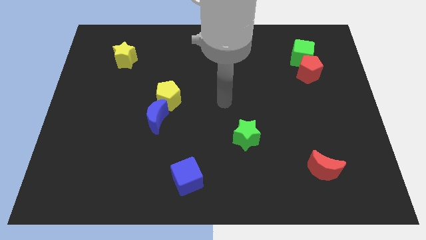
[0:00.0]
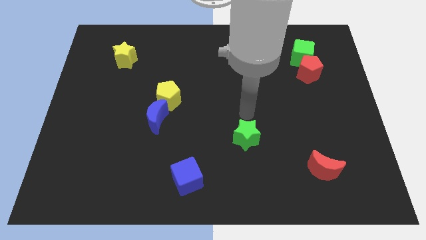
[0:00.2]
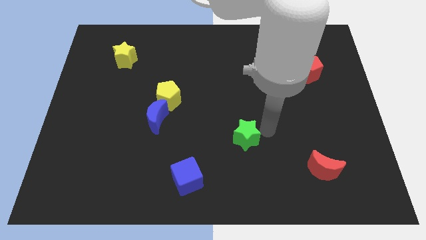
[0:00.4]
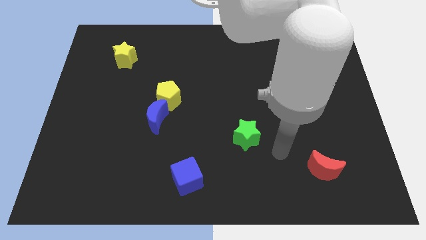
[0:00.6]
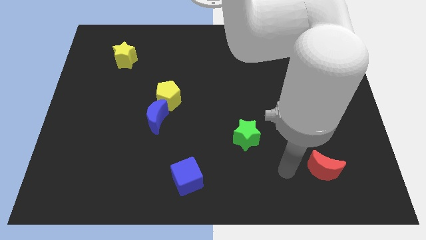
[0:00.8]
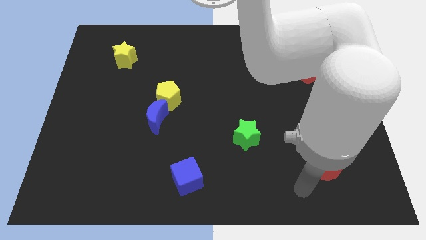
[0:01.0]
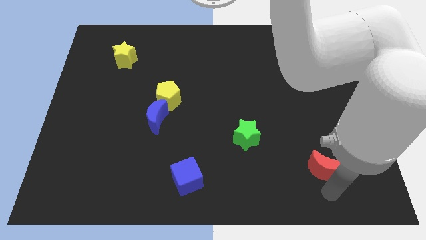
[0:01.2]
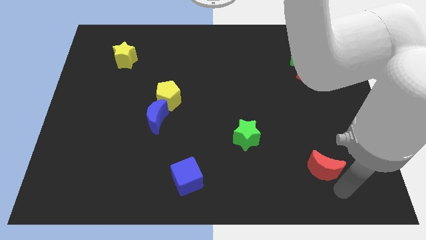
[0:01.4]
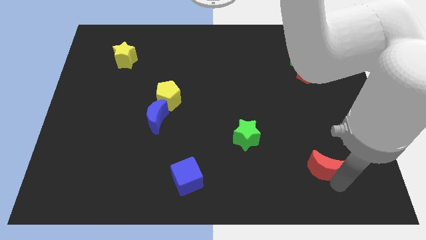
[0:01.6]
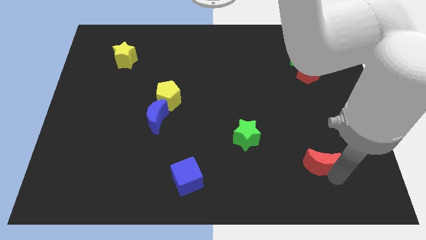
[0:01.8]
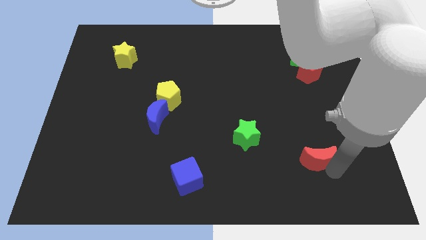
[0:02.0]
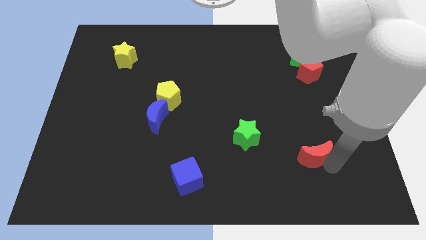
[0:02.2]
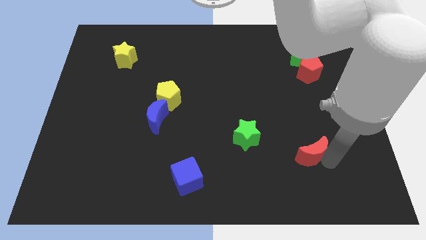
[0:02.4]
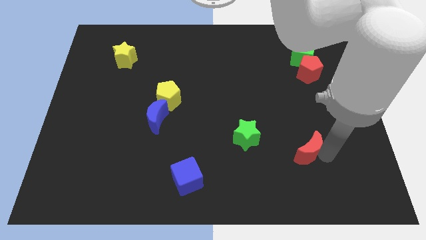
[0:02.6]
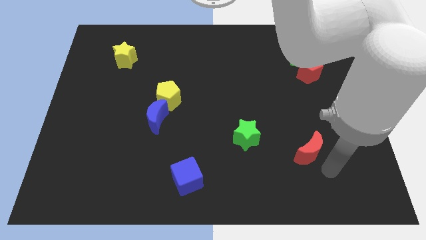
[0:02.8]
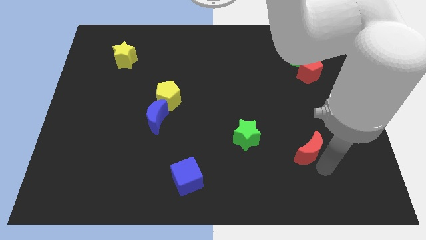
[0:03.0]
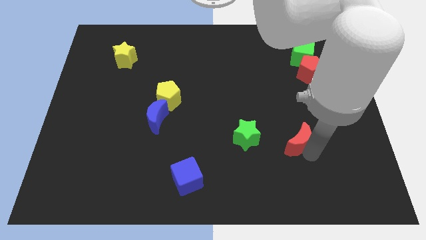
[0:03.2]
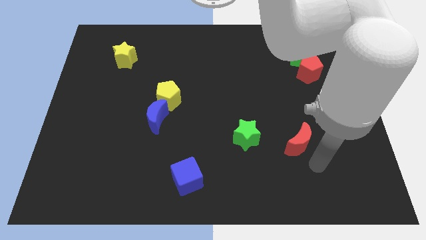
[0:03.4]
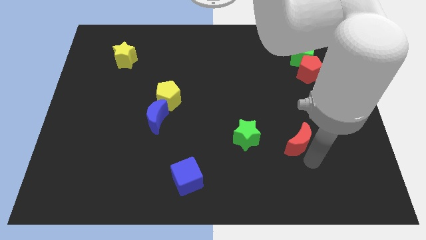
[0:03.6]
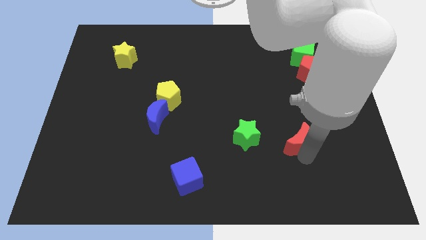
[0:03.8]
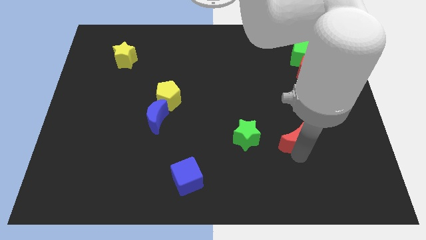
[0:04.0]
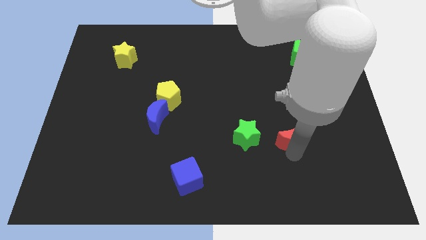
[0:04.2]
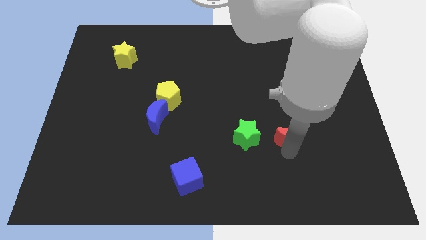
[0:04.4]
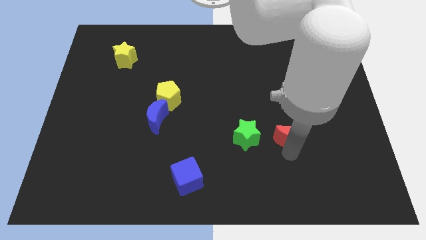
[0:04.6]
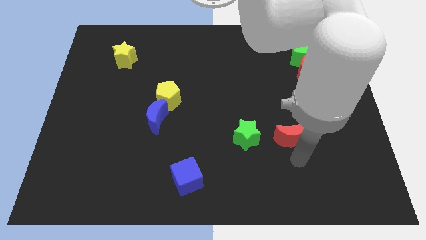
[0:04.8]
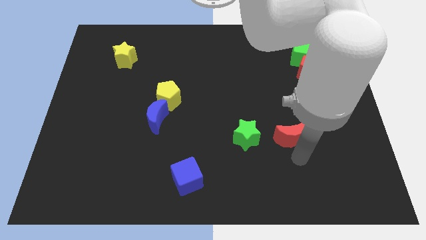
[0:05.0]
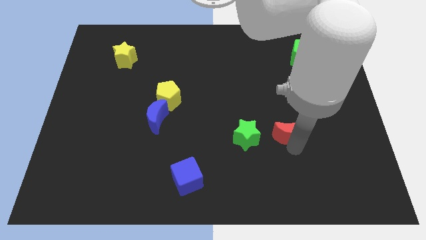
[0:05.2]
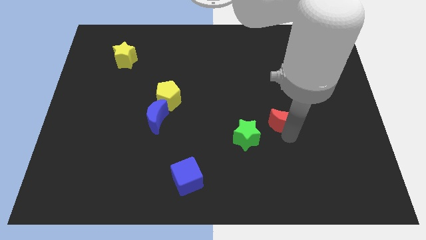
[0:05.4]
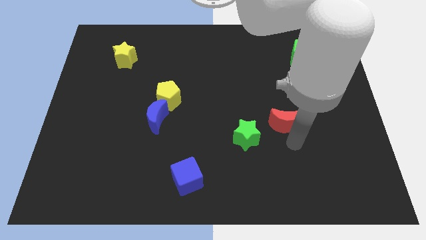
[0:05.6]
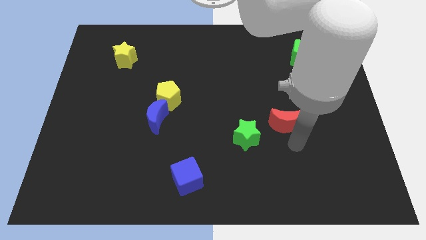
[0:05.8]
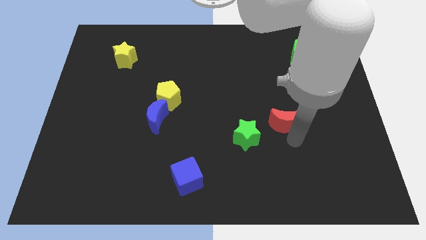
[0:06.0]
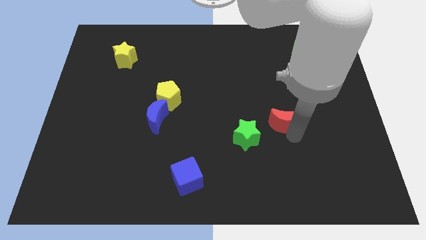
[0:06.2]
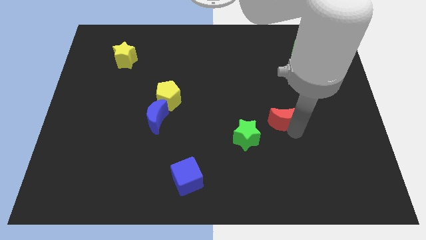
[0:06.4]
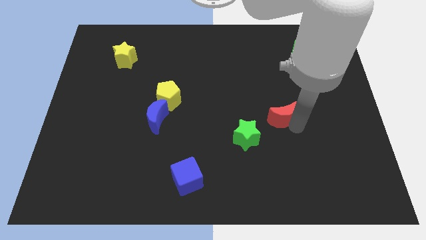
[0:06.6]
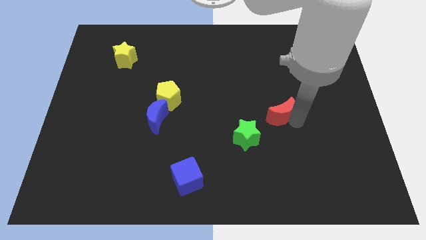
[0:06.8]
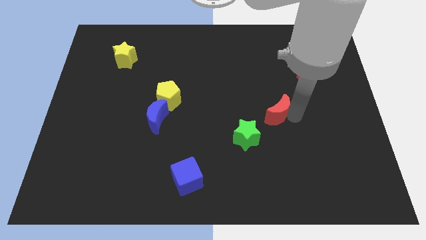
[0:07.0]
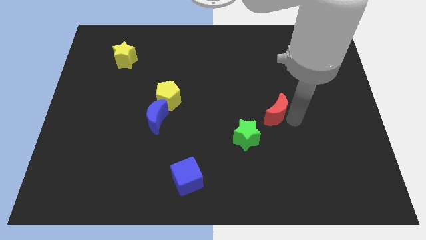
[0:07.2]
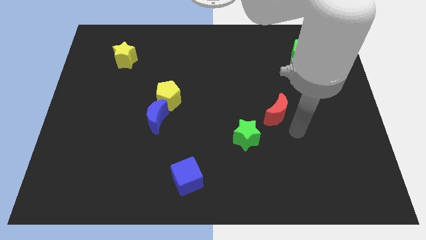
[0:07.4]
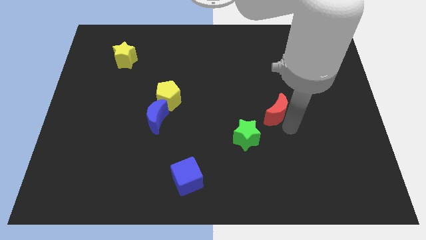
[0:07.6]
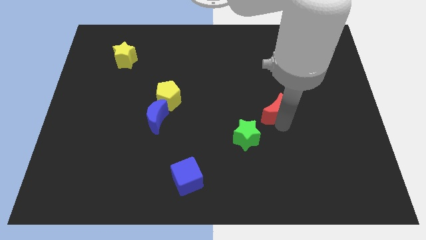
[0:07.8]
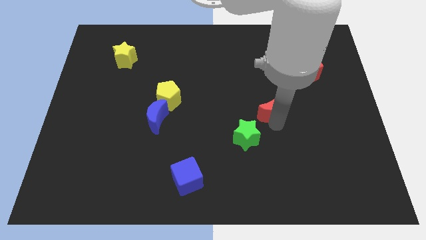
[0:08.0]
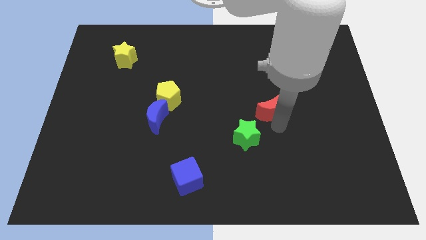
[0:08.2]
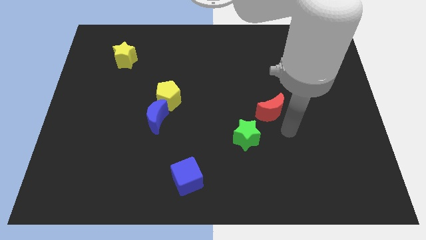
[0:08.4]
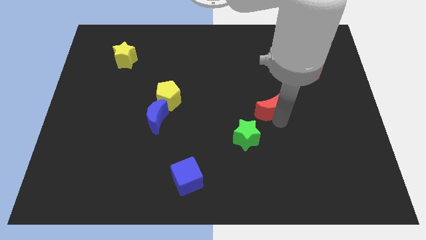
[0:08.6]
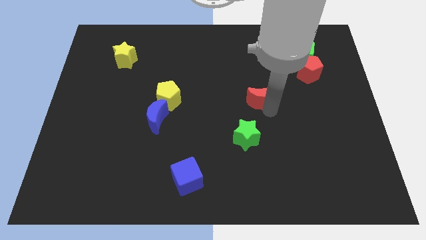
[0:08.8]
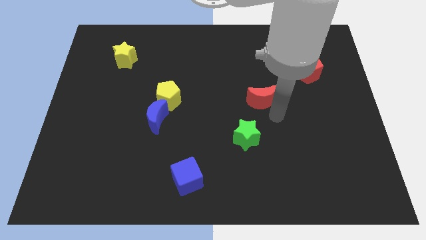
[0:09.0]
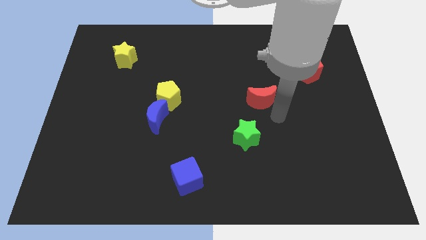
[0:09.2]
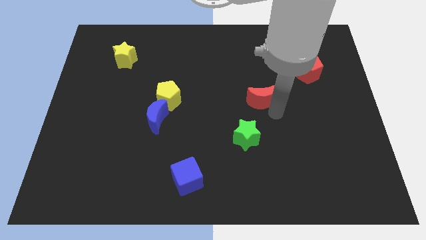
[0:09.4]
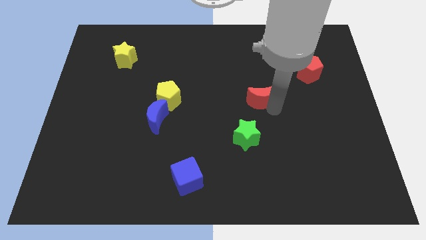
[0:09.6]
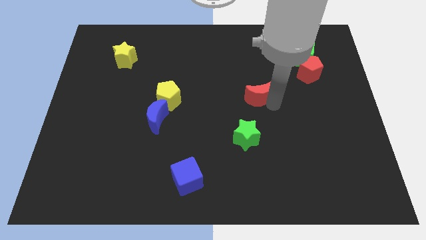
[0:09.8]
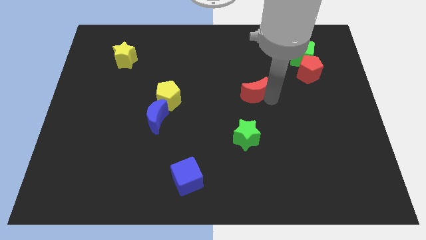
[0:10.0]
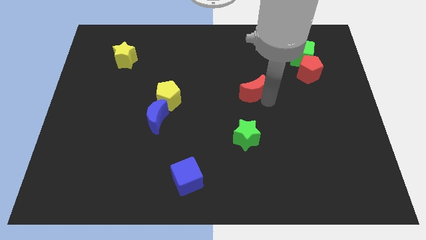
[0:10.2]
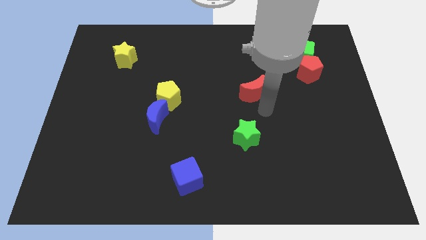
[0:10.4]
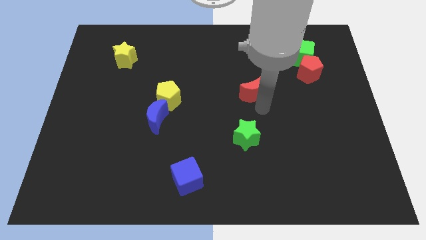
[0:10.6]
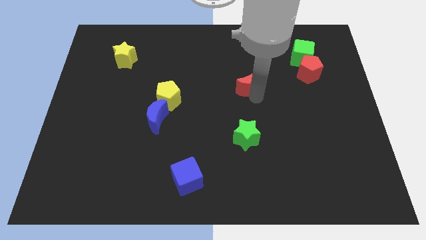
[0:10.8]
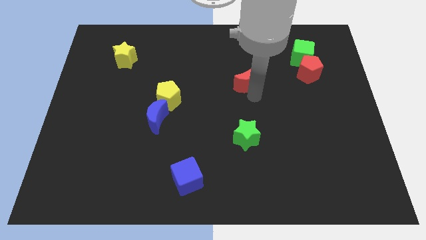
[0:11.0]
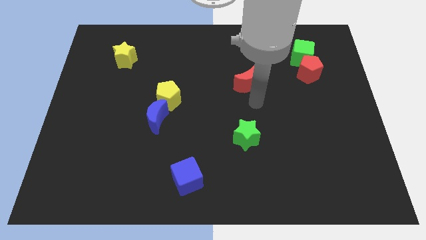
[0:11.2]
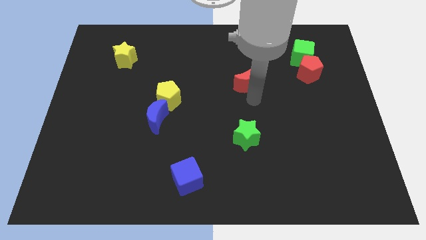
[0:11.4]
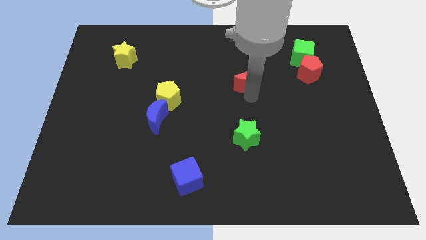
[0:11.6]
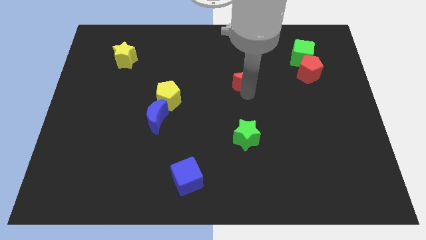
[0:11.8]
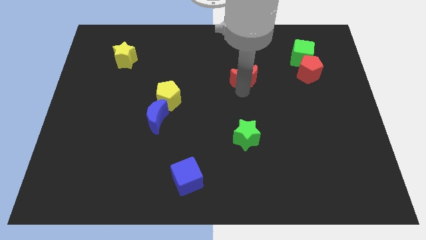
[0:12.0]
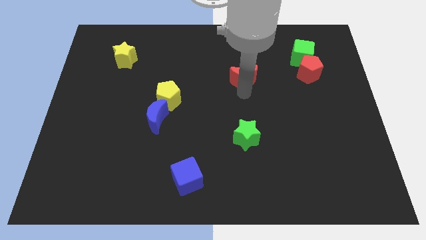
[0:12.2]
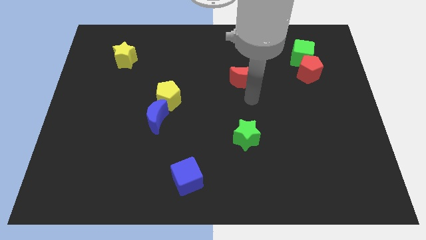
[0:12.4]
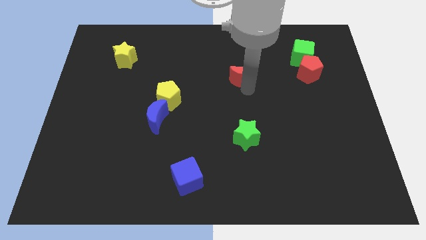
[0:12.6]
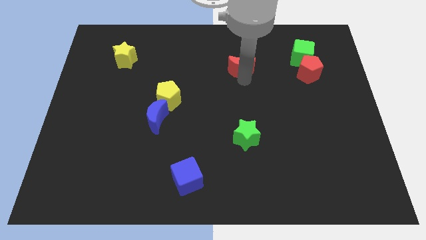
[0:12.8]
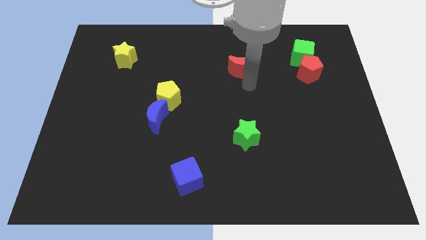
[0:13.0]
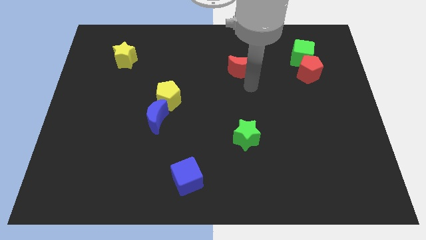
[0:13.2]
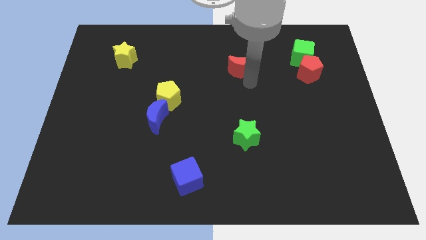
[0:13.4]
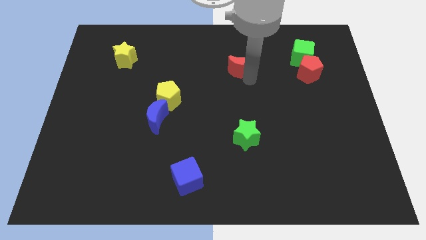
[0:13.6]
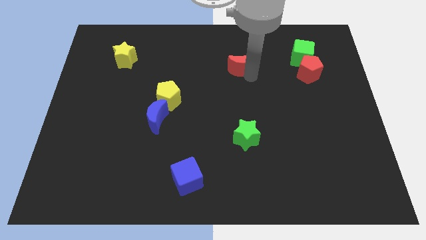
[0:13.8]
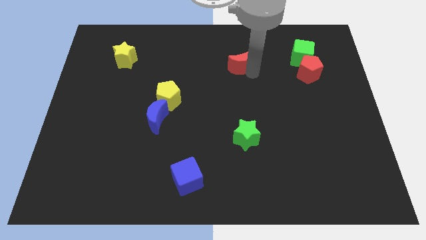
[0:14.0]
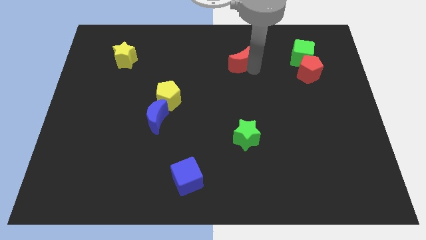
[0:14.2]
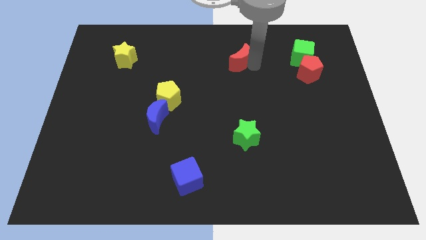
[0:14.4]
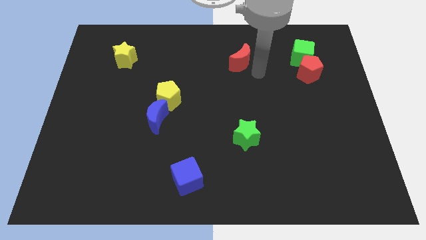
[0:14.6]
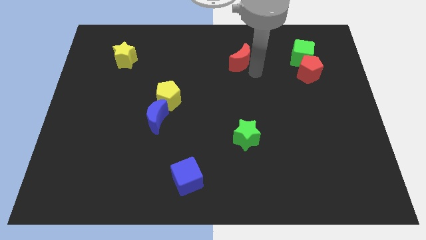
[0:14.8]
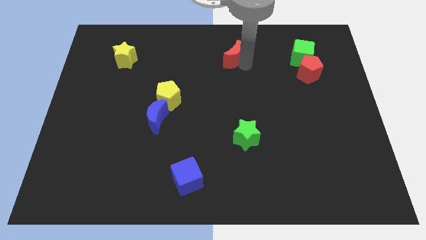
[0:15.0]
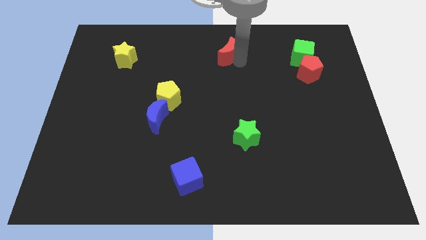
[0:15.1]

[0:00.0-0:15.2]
move the red moon to the towards your base
